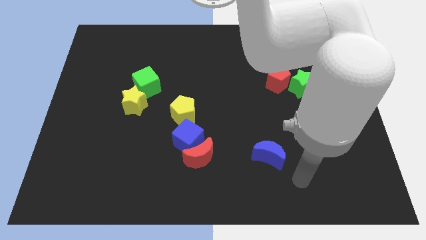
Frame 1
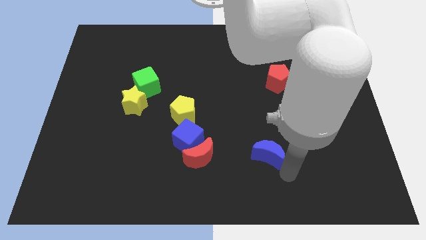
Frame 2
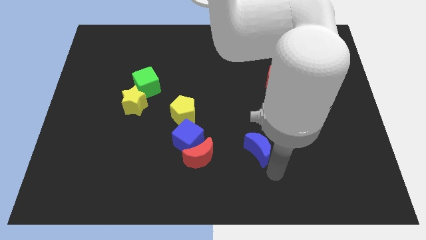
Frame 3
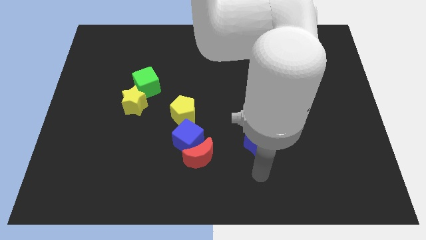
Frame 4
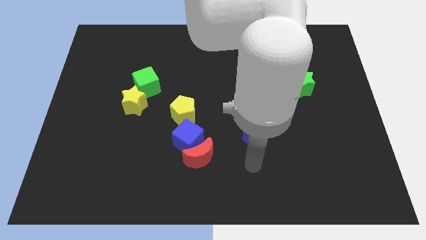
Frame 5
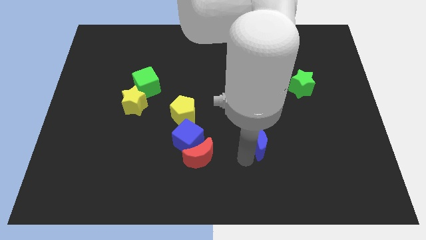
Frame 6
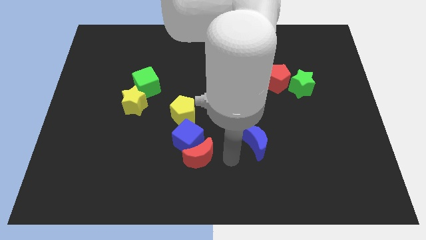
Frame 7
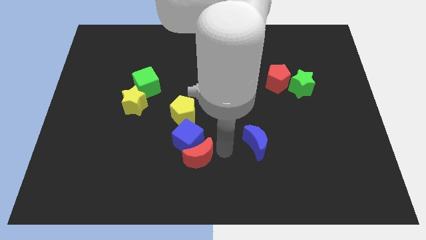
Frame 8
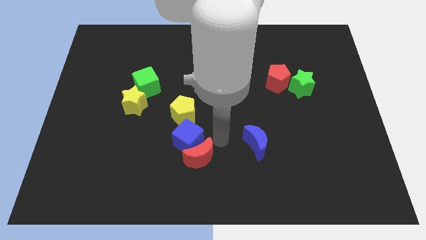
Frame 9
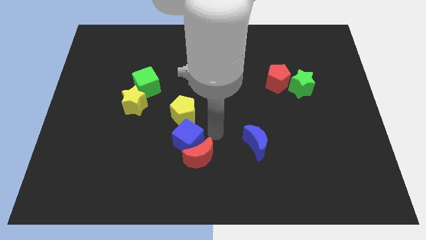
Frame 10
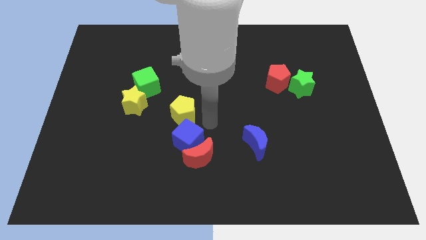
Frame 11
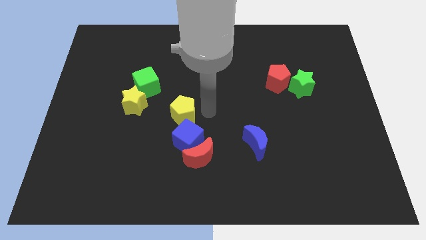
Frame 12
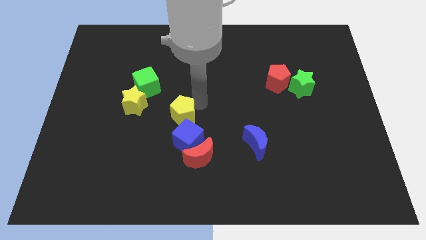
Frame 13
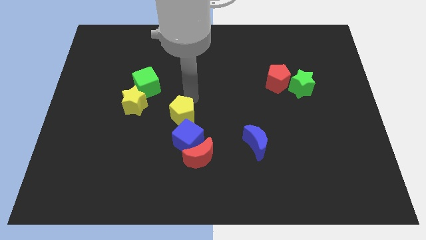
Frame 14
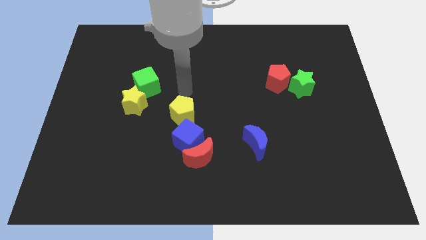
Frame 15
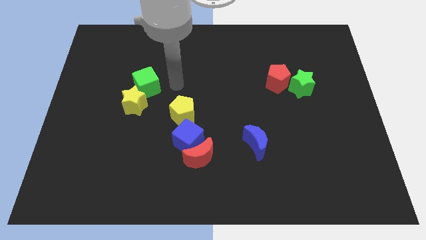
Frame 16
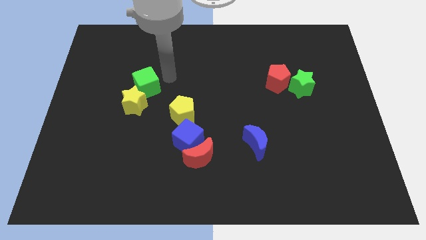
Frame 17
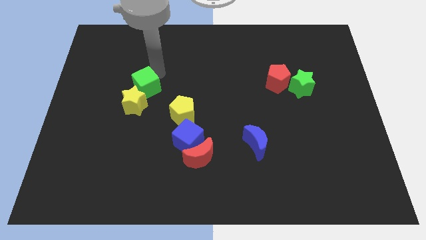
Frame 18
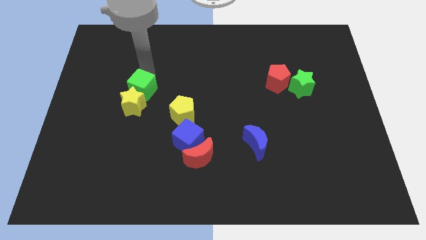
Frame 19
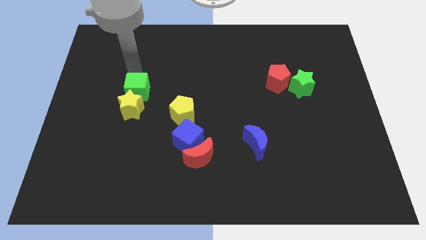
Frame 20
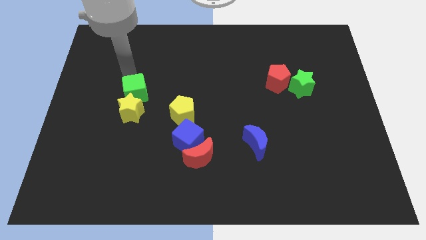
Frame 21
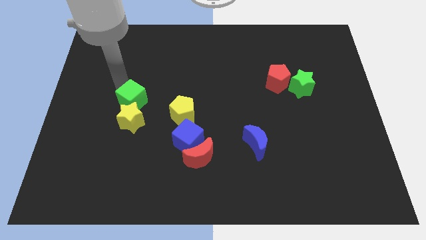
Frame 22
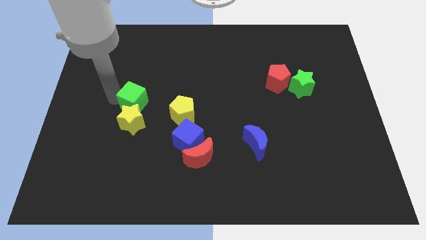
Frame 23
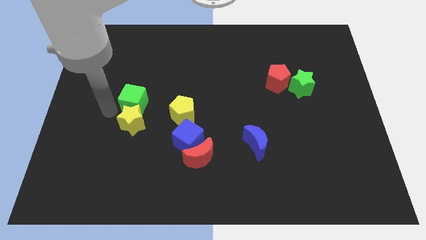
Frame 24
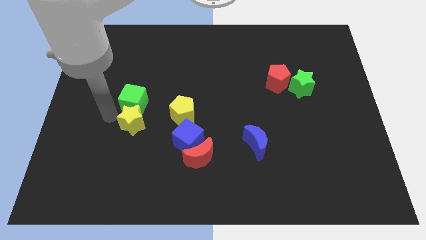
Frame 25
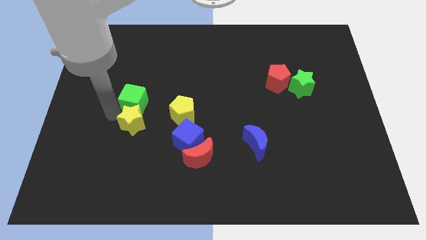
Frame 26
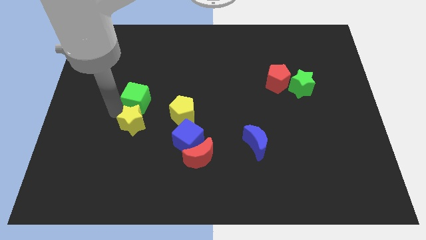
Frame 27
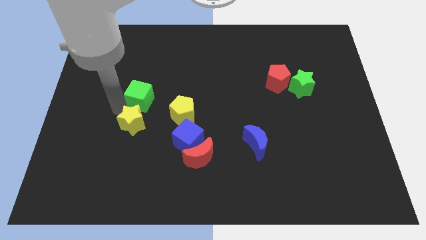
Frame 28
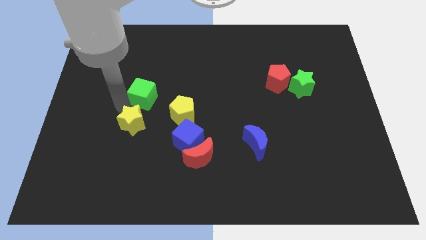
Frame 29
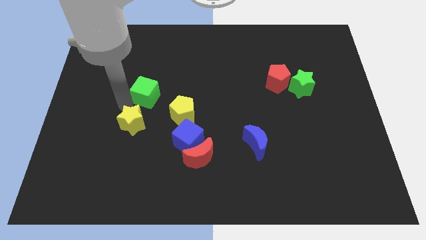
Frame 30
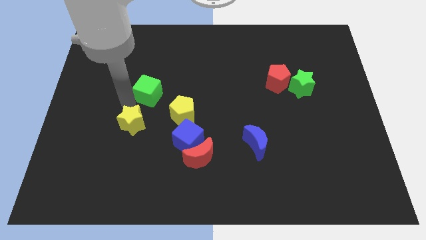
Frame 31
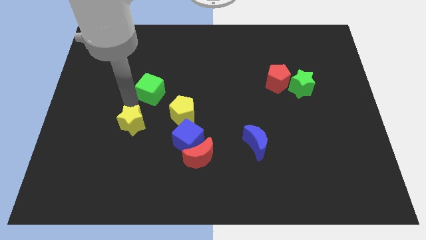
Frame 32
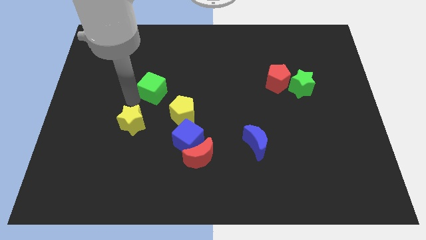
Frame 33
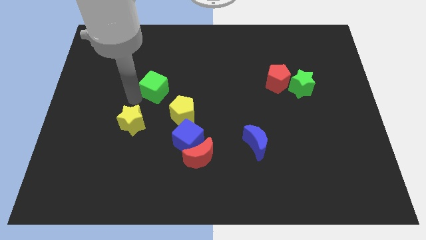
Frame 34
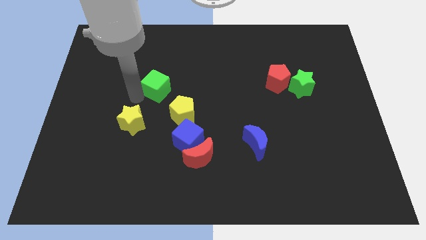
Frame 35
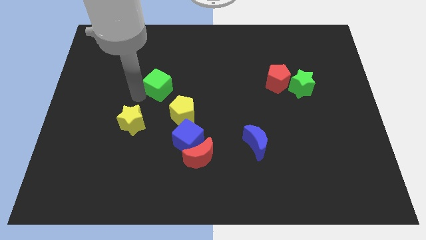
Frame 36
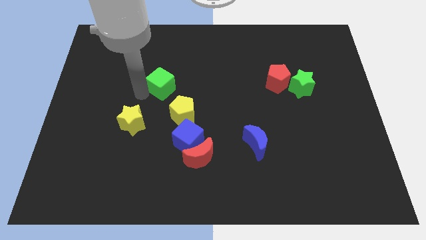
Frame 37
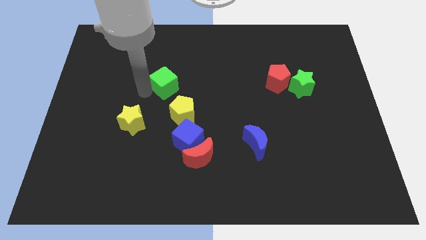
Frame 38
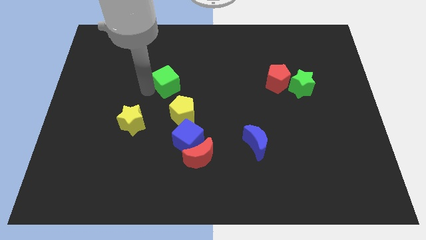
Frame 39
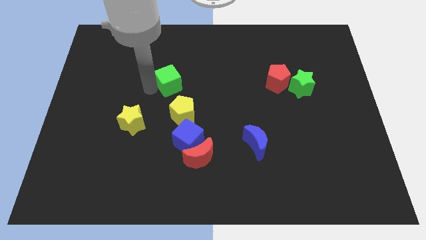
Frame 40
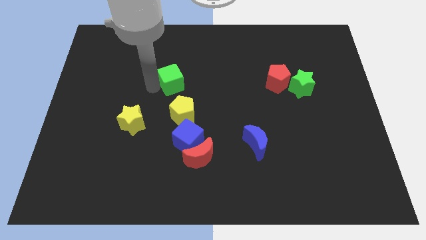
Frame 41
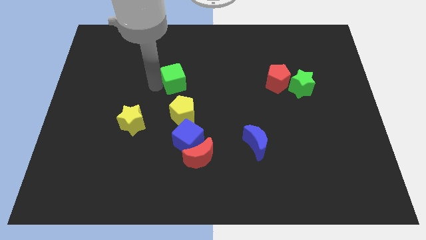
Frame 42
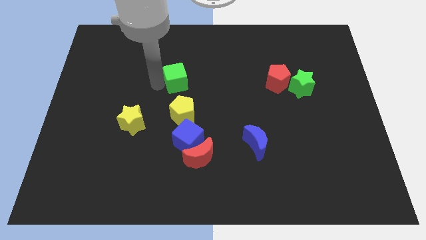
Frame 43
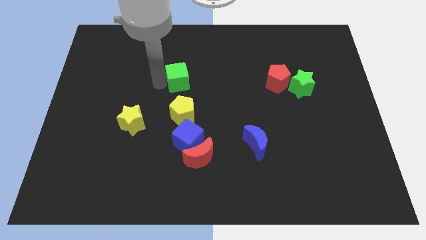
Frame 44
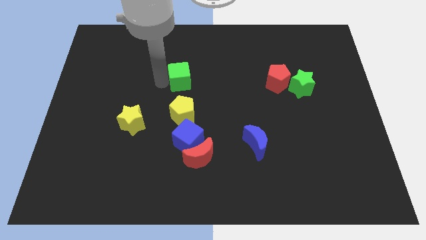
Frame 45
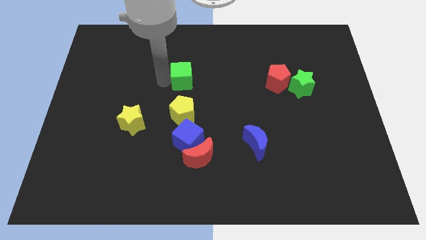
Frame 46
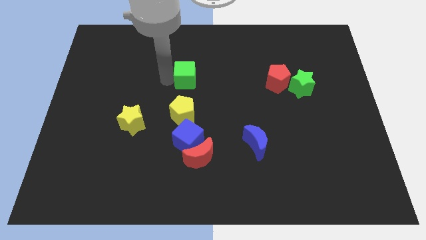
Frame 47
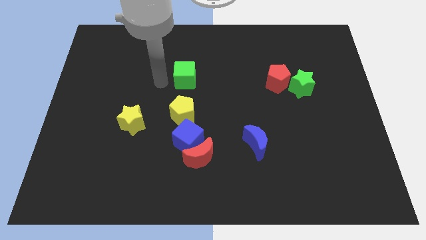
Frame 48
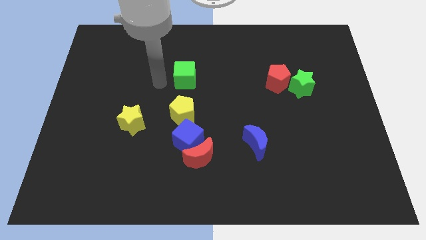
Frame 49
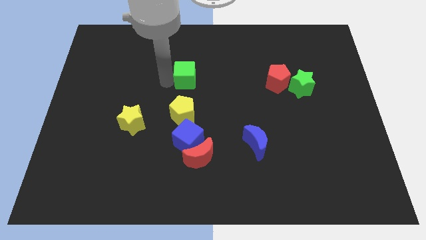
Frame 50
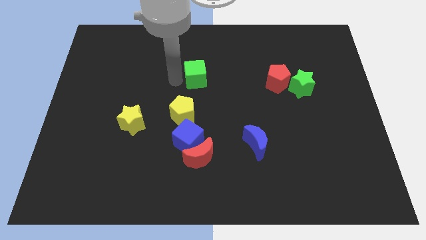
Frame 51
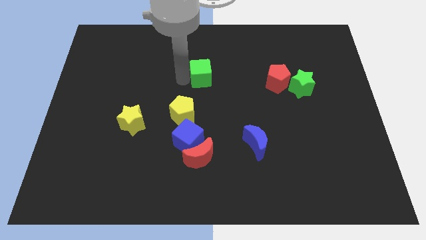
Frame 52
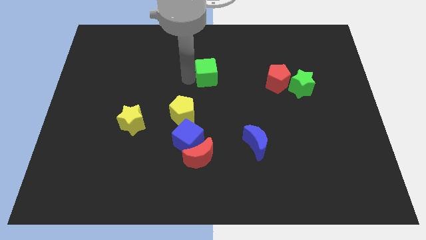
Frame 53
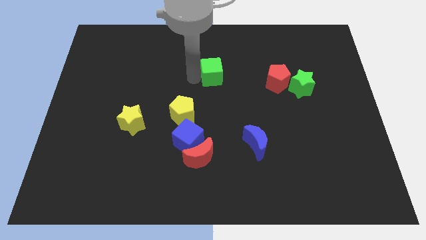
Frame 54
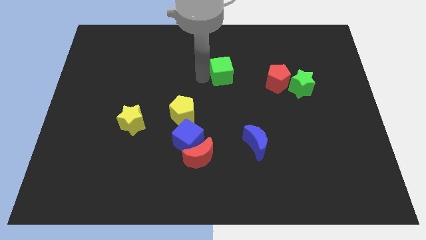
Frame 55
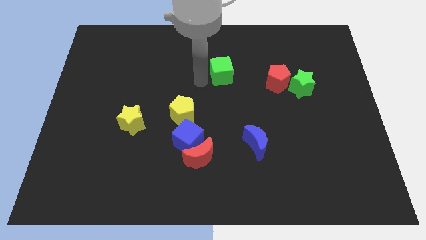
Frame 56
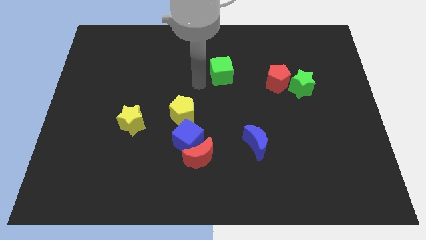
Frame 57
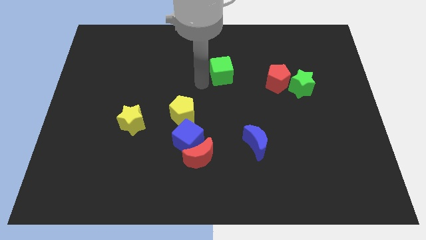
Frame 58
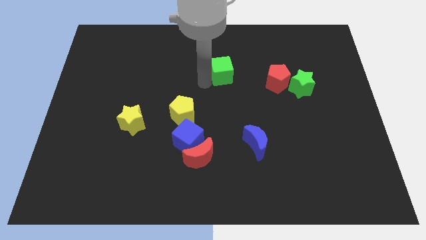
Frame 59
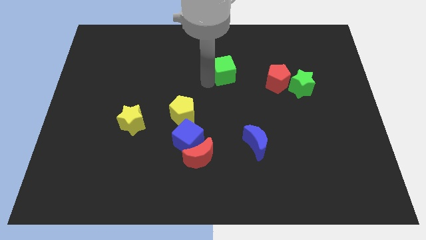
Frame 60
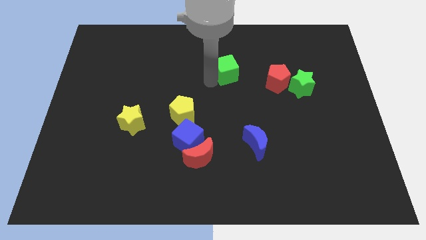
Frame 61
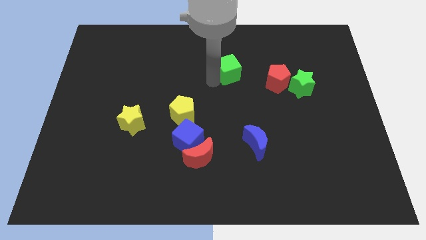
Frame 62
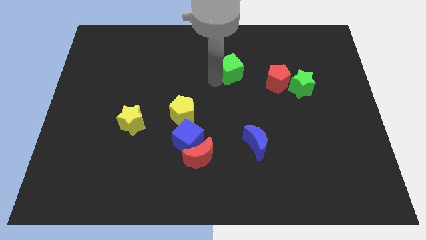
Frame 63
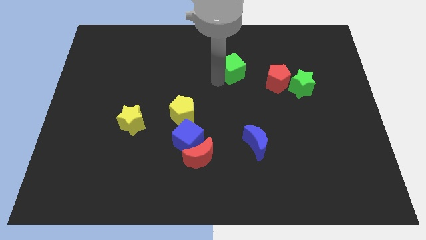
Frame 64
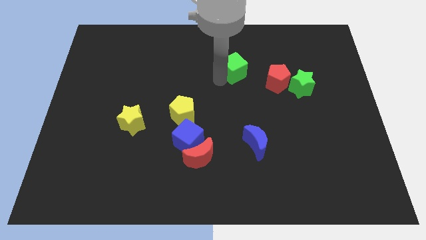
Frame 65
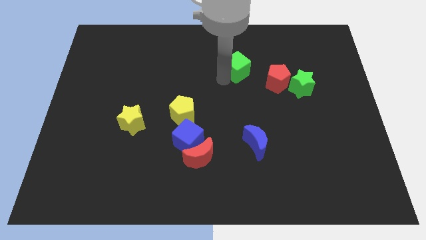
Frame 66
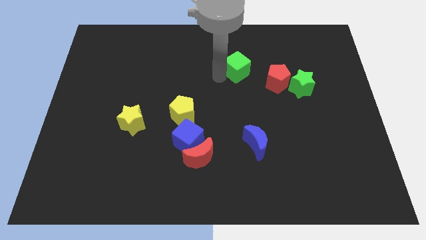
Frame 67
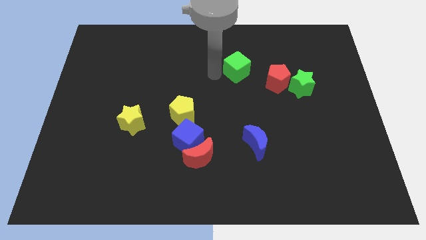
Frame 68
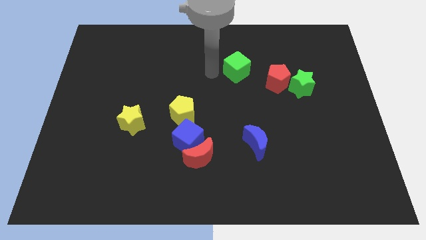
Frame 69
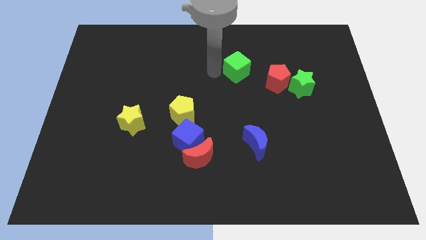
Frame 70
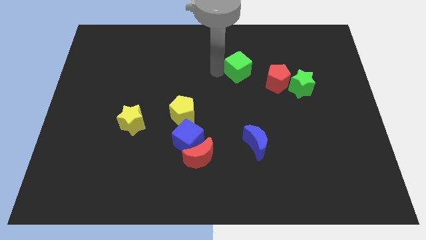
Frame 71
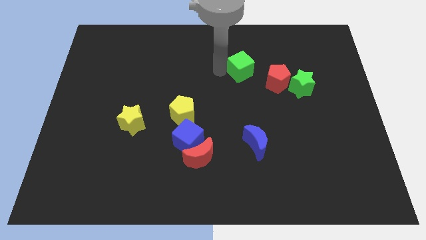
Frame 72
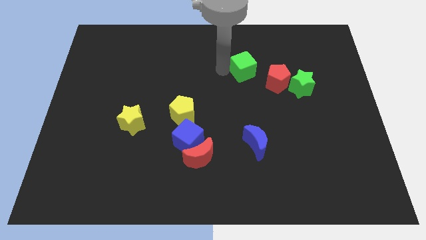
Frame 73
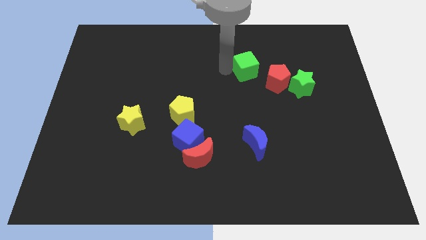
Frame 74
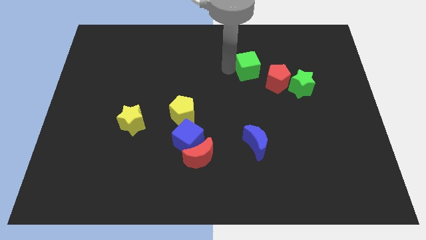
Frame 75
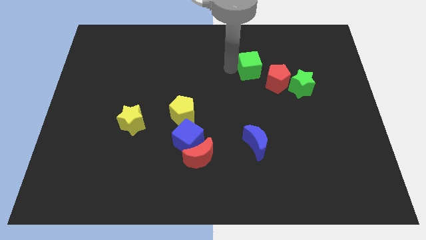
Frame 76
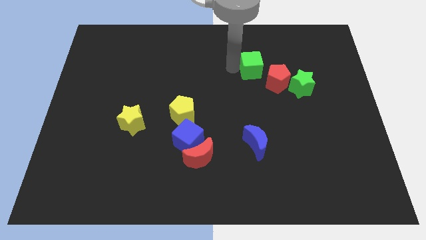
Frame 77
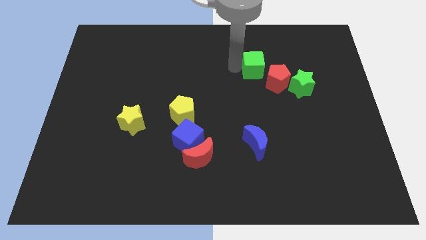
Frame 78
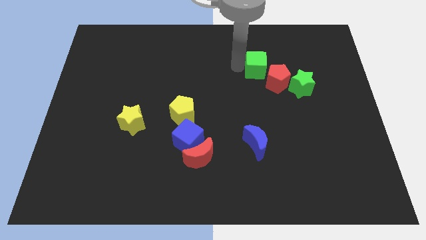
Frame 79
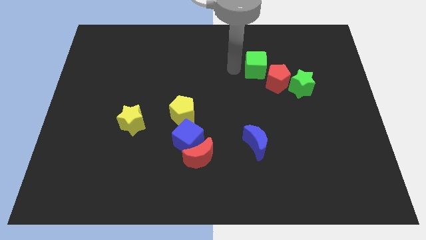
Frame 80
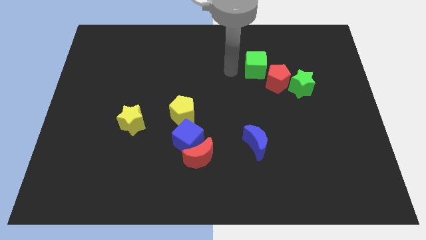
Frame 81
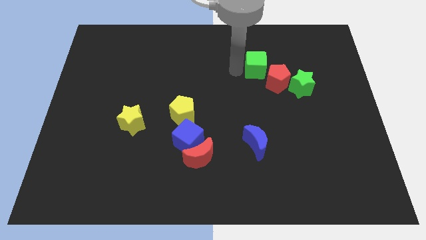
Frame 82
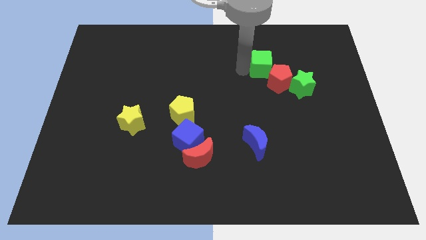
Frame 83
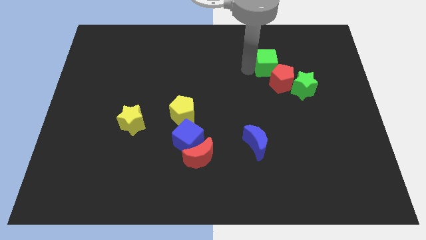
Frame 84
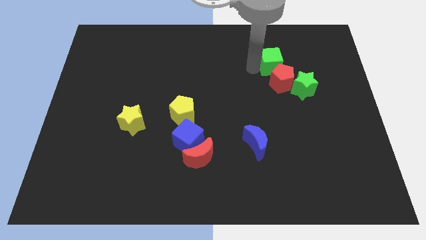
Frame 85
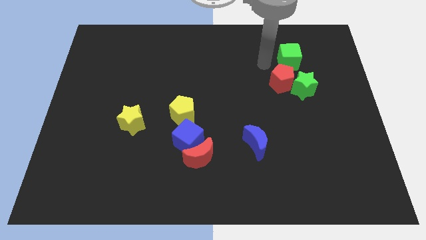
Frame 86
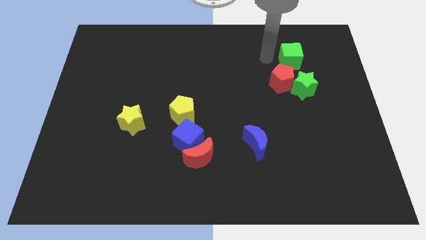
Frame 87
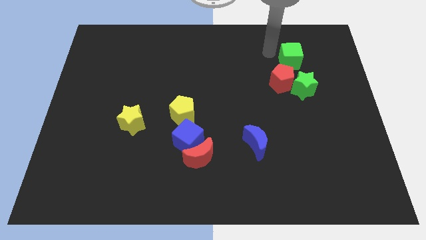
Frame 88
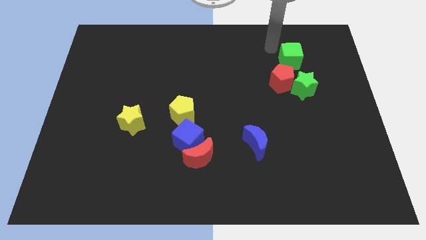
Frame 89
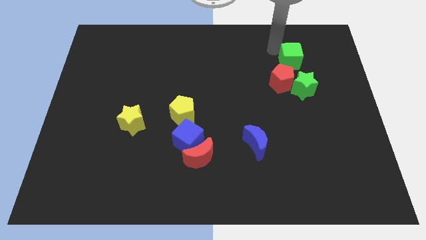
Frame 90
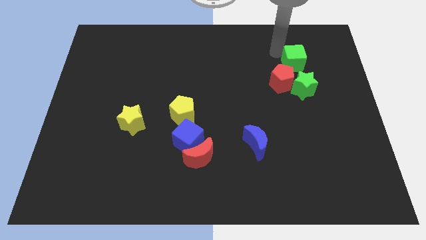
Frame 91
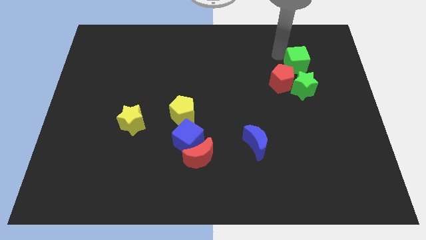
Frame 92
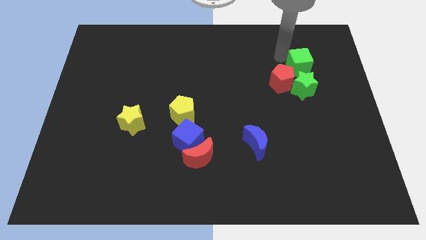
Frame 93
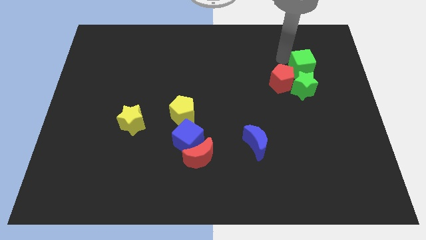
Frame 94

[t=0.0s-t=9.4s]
move the green cube to the right side of the red pentagon
